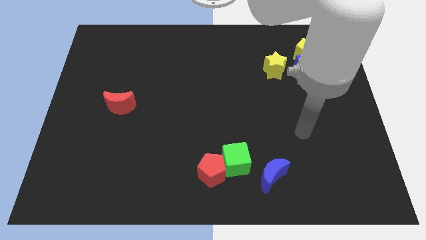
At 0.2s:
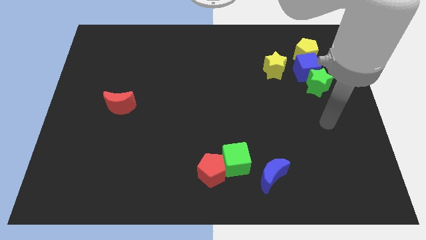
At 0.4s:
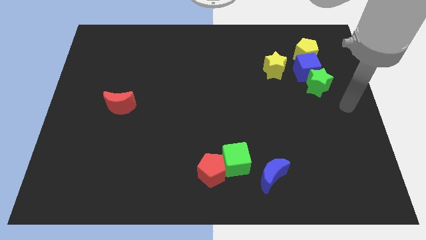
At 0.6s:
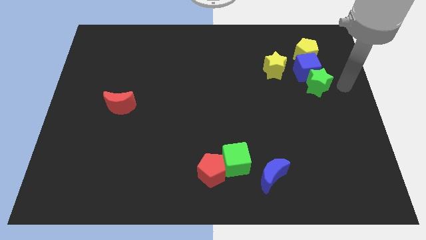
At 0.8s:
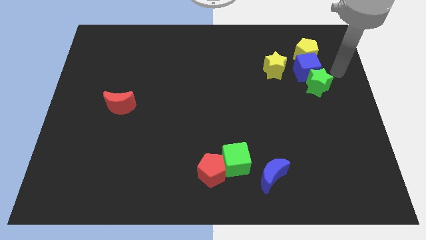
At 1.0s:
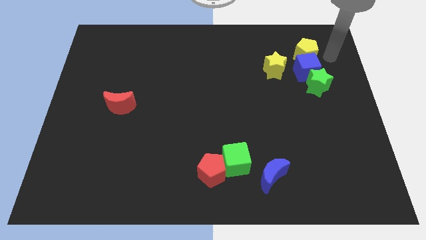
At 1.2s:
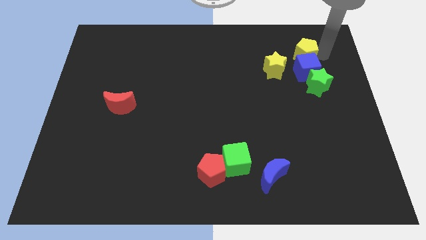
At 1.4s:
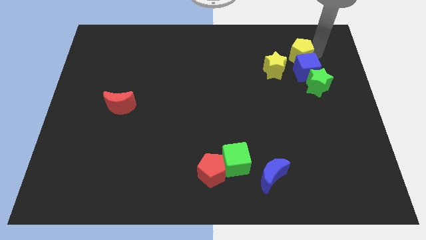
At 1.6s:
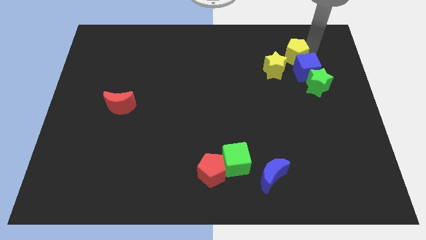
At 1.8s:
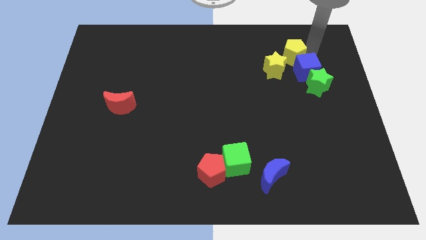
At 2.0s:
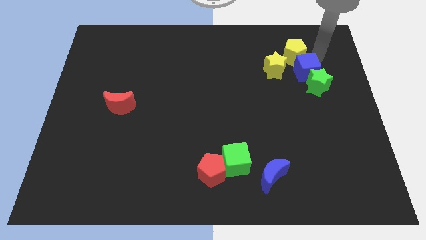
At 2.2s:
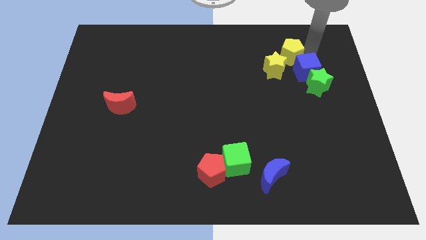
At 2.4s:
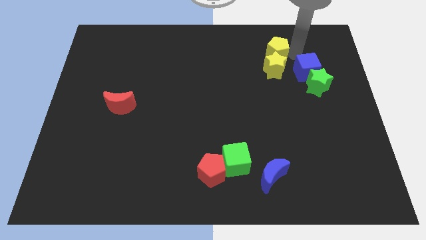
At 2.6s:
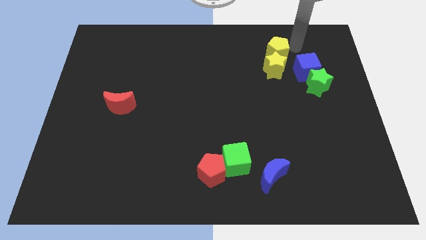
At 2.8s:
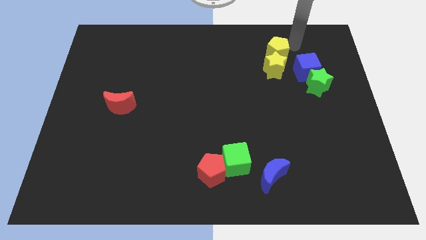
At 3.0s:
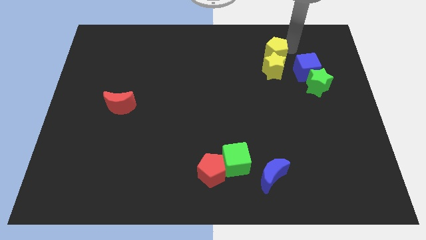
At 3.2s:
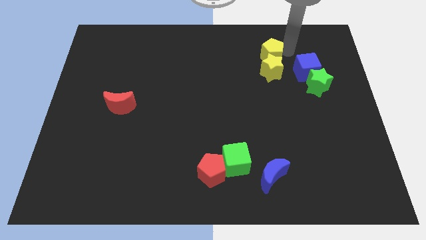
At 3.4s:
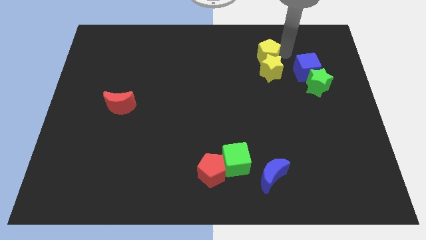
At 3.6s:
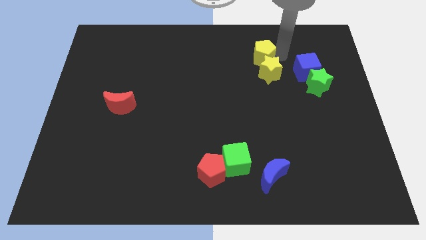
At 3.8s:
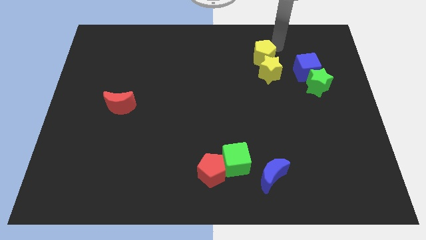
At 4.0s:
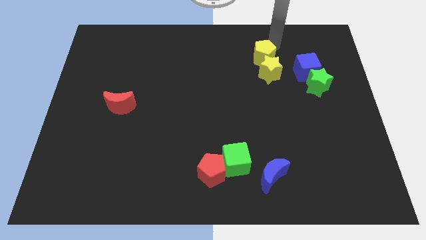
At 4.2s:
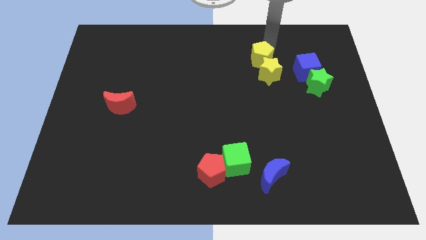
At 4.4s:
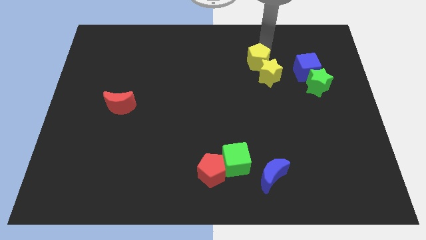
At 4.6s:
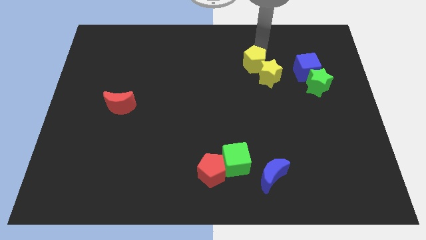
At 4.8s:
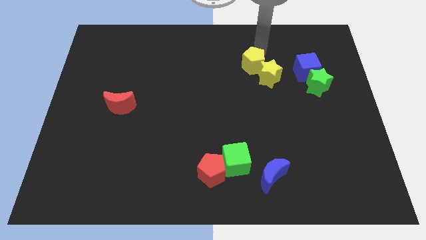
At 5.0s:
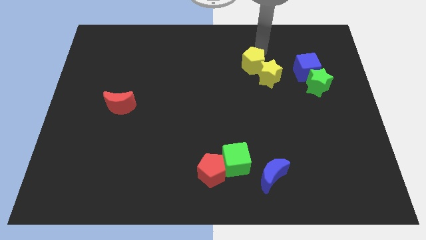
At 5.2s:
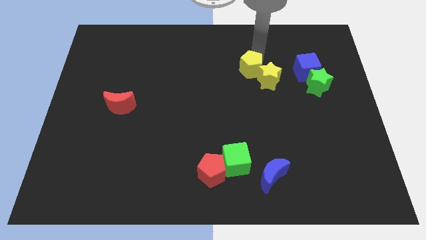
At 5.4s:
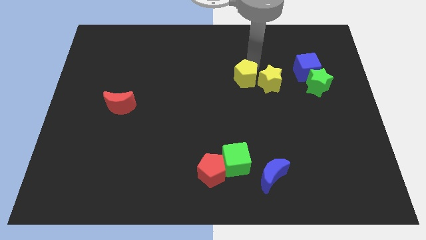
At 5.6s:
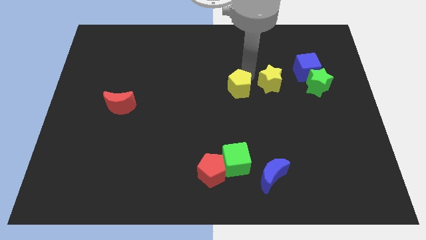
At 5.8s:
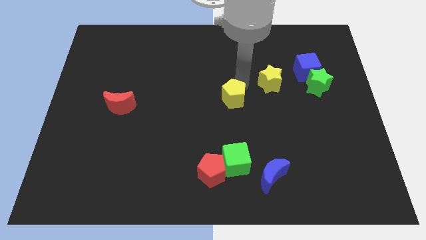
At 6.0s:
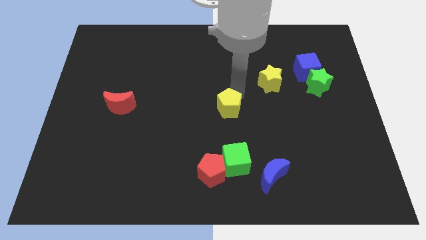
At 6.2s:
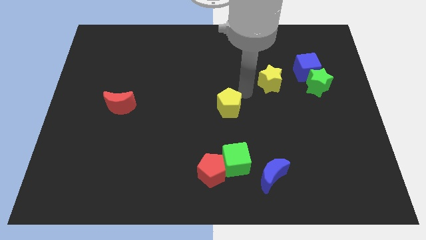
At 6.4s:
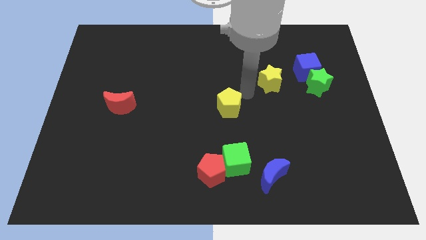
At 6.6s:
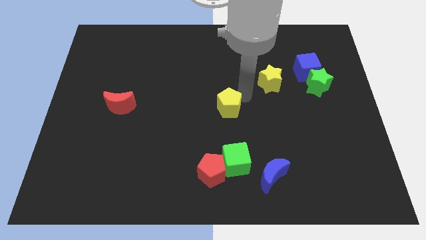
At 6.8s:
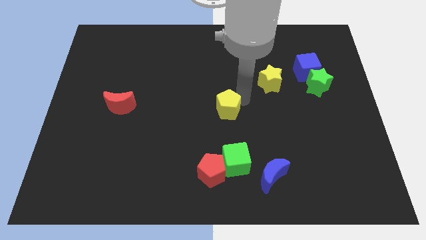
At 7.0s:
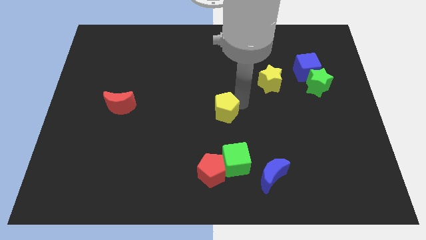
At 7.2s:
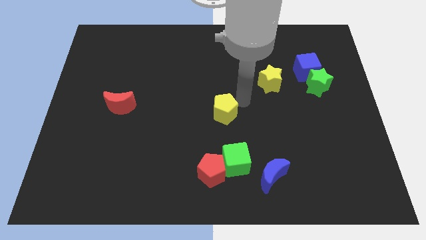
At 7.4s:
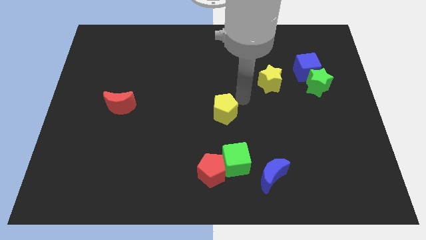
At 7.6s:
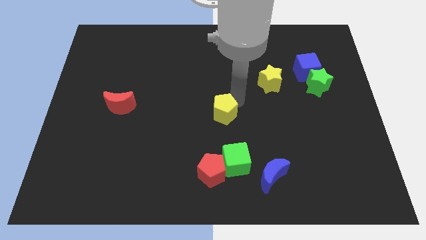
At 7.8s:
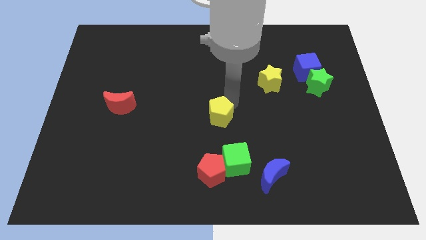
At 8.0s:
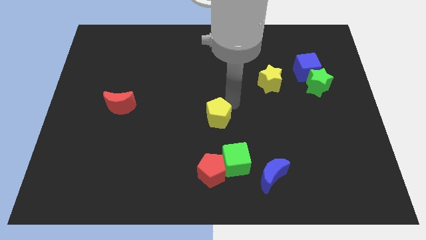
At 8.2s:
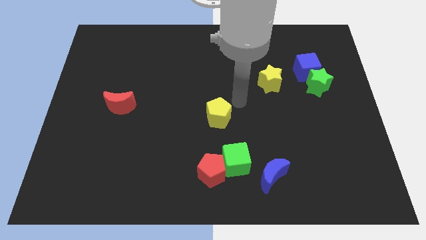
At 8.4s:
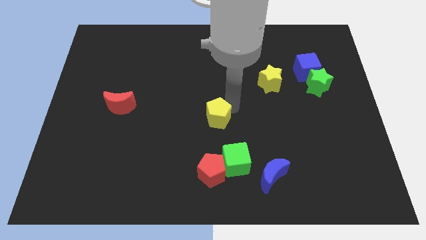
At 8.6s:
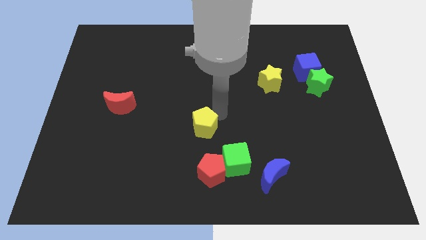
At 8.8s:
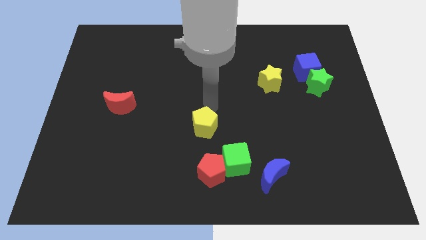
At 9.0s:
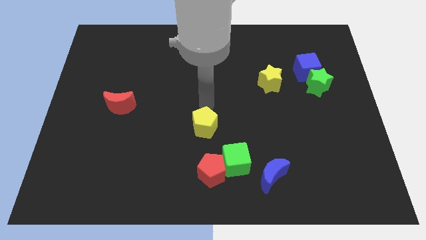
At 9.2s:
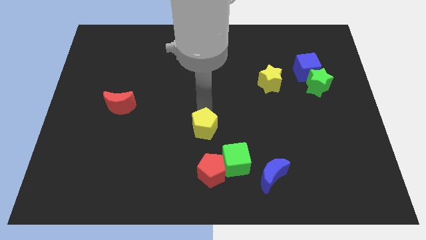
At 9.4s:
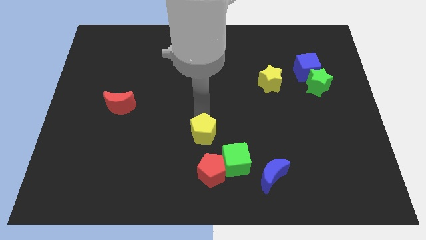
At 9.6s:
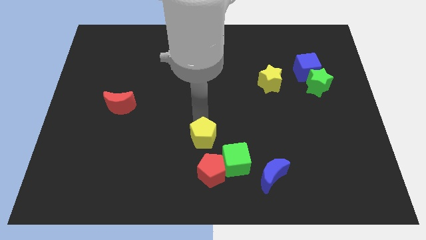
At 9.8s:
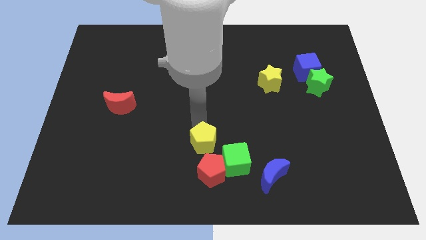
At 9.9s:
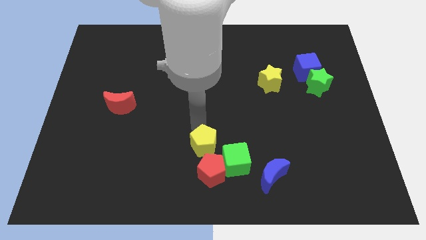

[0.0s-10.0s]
put the yellow pentagon left of the green cube

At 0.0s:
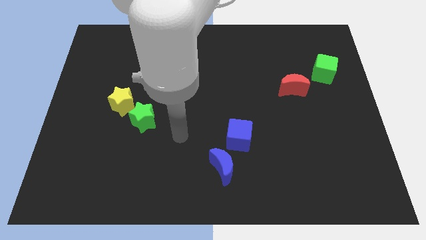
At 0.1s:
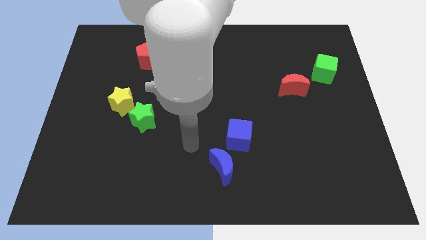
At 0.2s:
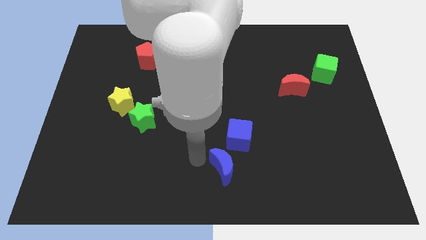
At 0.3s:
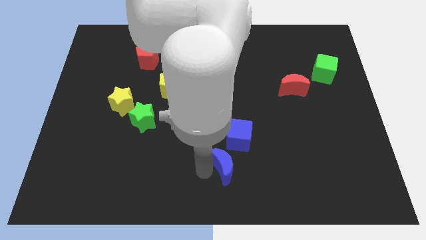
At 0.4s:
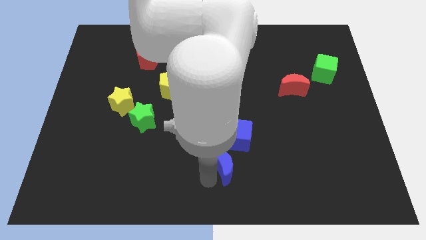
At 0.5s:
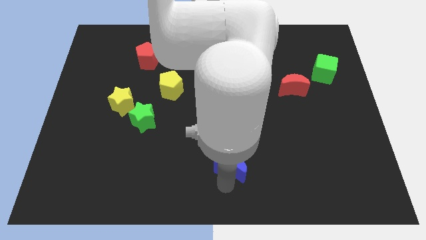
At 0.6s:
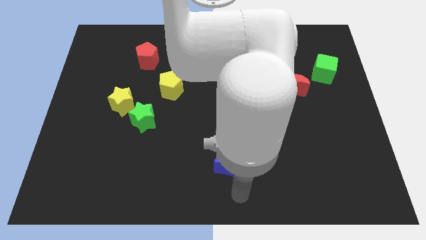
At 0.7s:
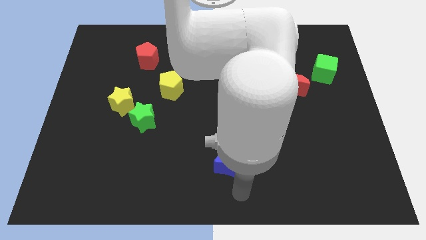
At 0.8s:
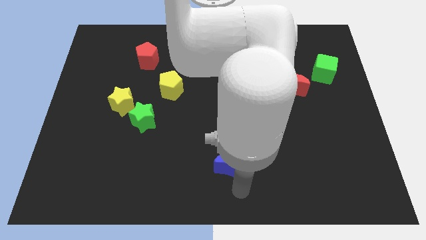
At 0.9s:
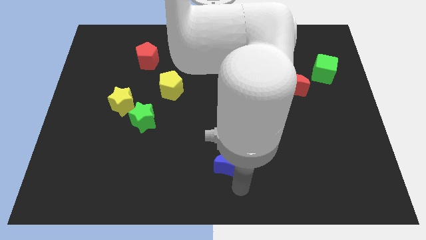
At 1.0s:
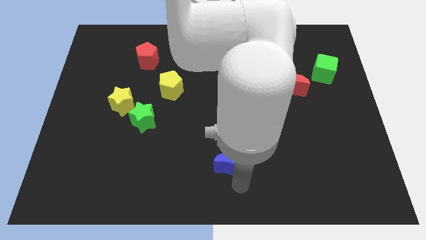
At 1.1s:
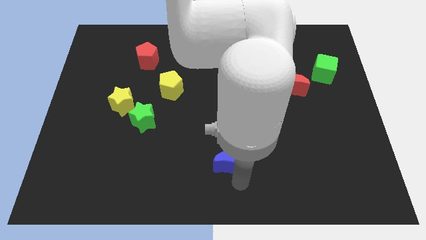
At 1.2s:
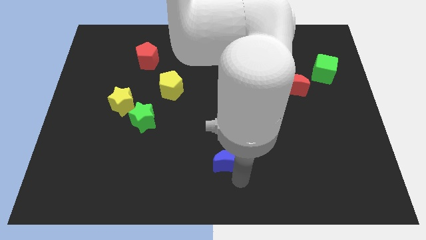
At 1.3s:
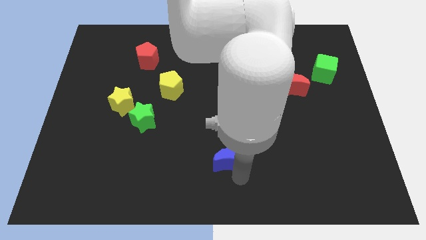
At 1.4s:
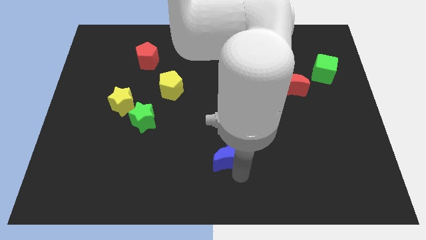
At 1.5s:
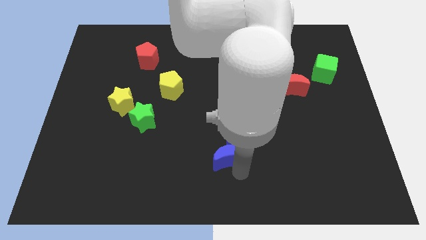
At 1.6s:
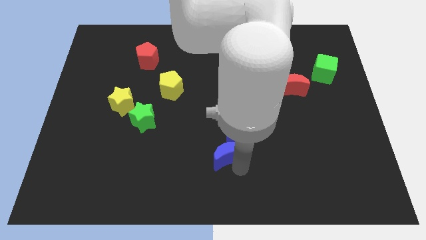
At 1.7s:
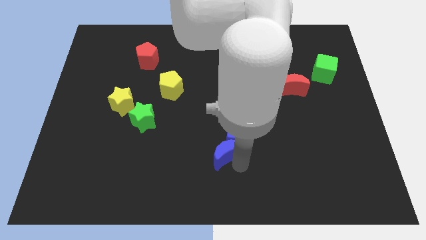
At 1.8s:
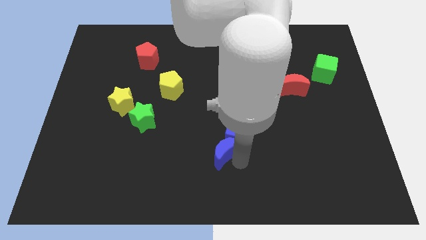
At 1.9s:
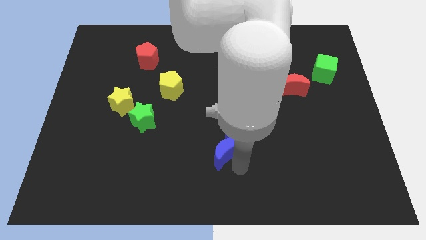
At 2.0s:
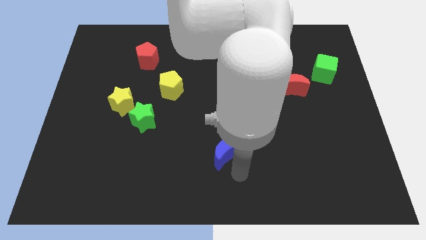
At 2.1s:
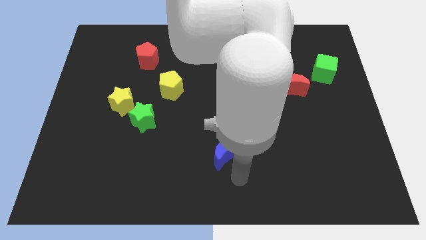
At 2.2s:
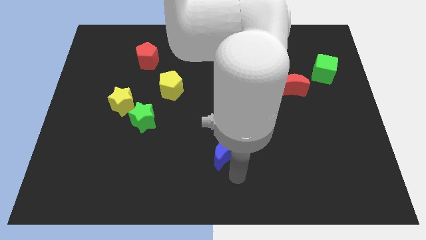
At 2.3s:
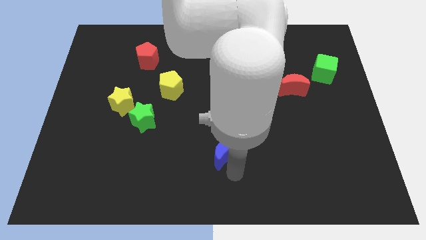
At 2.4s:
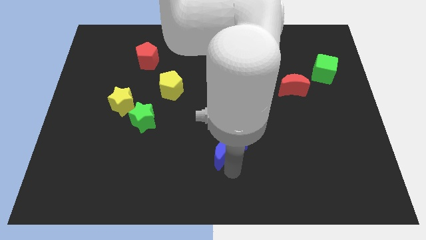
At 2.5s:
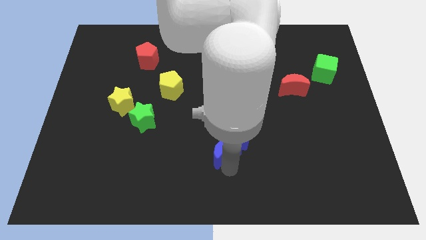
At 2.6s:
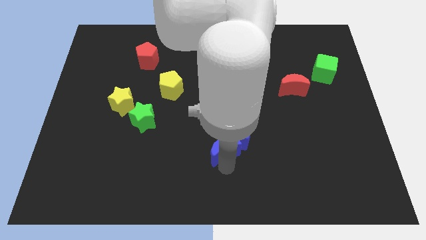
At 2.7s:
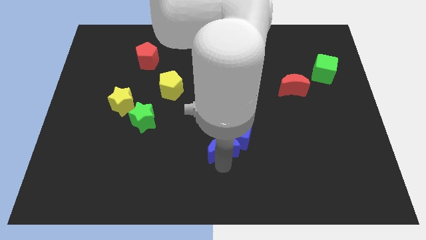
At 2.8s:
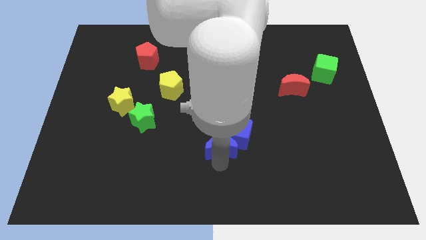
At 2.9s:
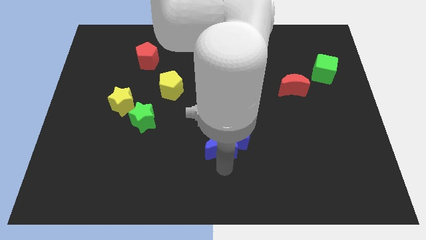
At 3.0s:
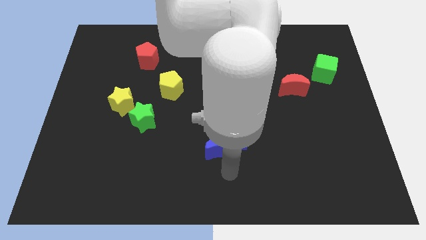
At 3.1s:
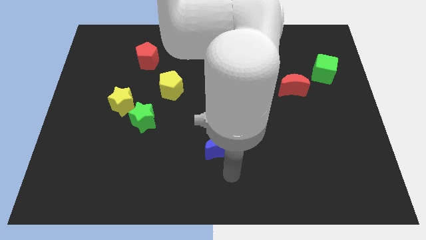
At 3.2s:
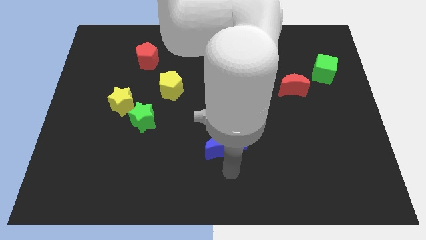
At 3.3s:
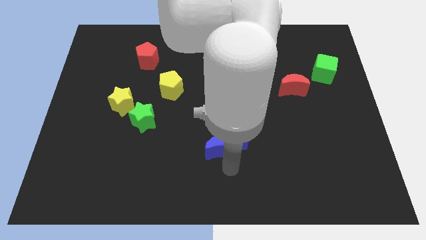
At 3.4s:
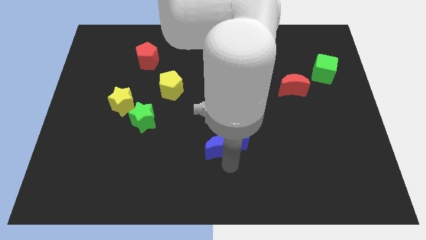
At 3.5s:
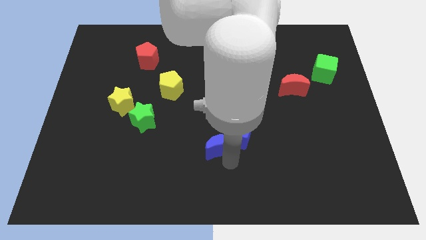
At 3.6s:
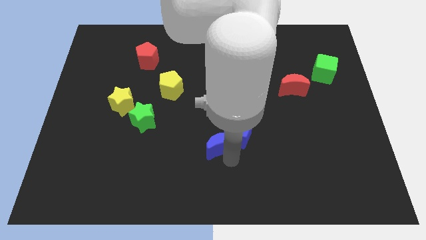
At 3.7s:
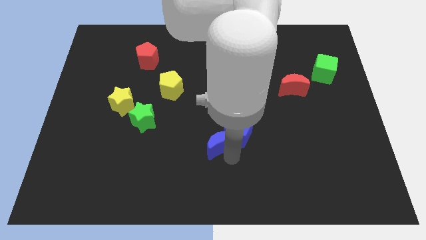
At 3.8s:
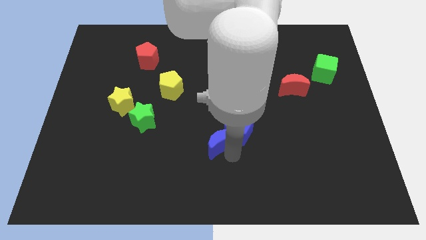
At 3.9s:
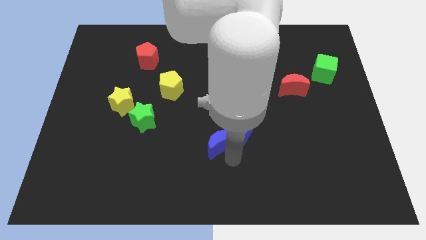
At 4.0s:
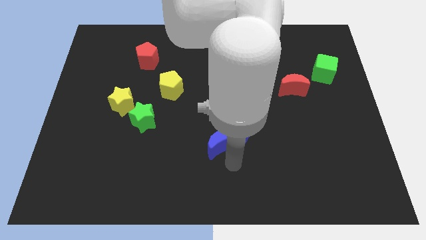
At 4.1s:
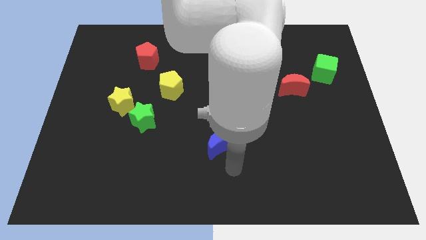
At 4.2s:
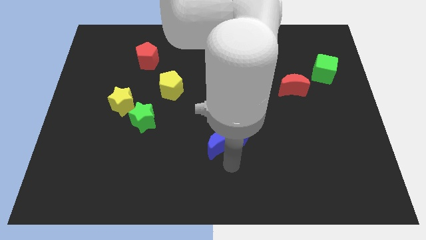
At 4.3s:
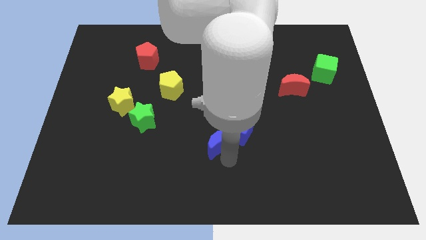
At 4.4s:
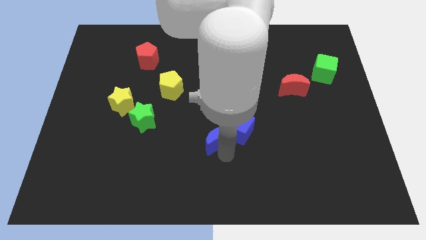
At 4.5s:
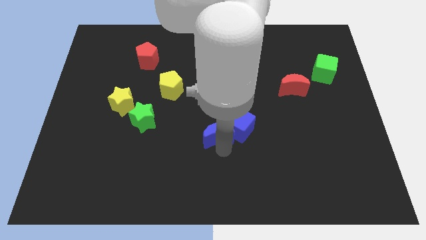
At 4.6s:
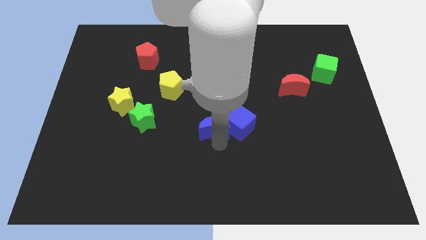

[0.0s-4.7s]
move the blue moon to the top left side of the blue cube
